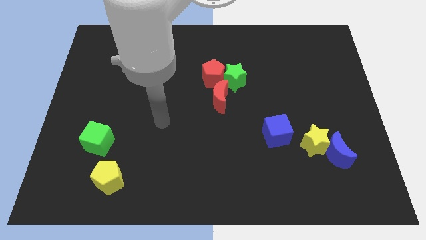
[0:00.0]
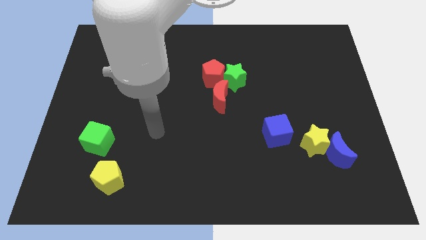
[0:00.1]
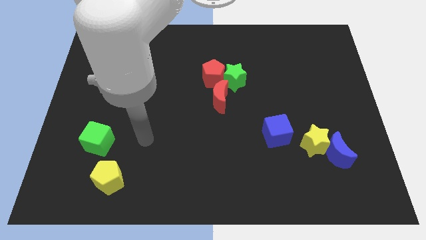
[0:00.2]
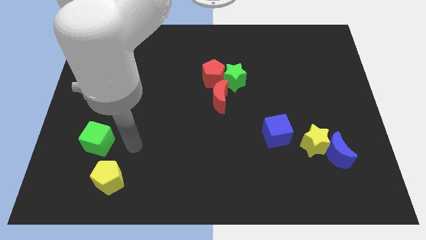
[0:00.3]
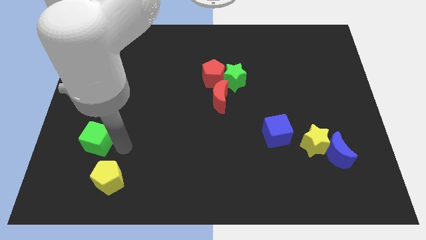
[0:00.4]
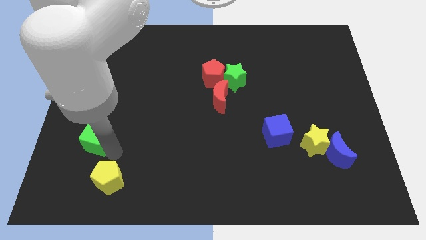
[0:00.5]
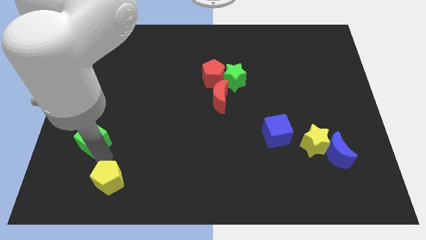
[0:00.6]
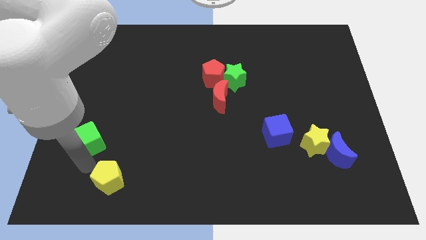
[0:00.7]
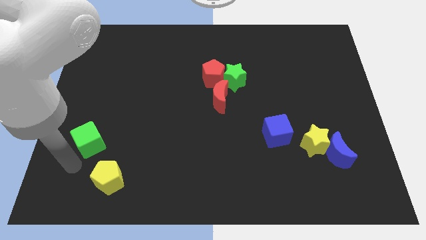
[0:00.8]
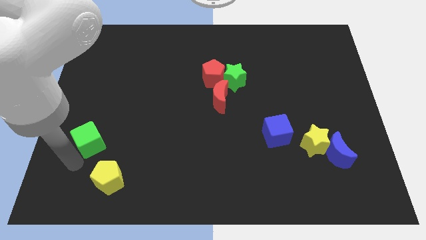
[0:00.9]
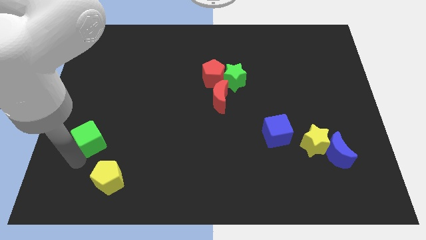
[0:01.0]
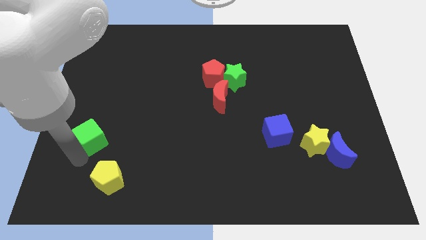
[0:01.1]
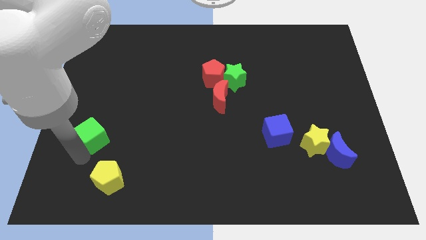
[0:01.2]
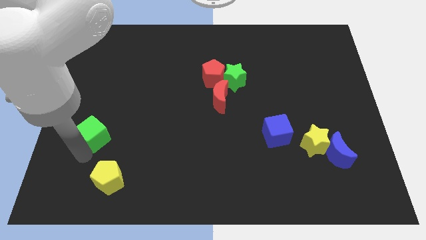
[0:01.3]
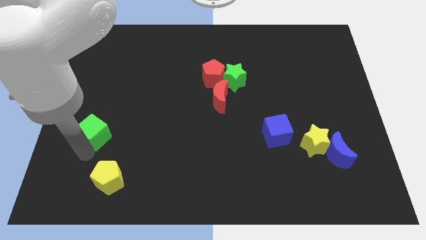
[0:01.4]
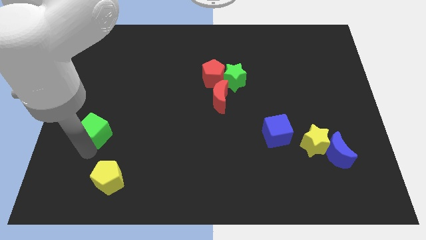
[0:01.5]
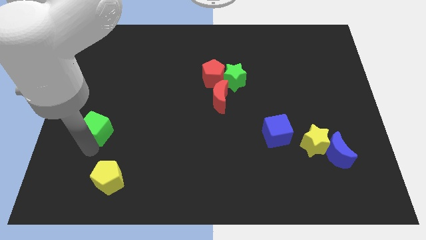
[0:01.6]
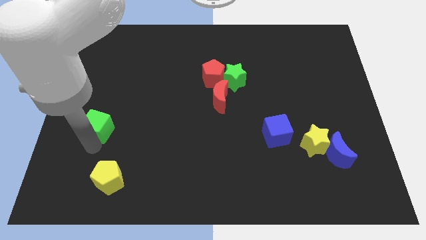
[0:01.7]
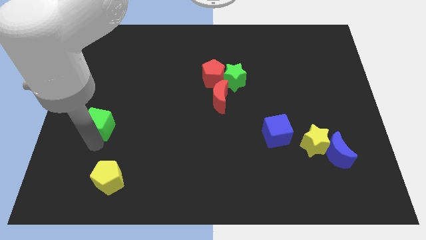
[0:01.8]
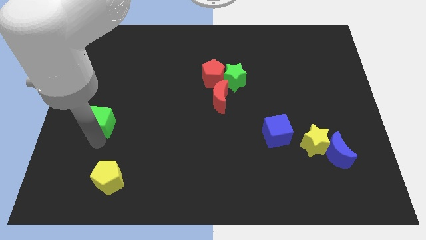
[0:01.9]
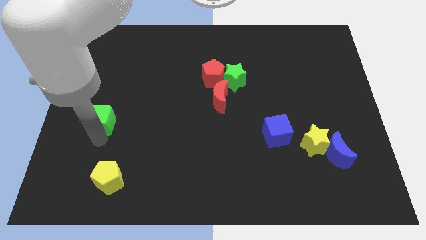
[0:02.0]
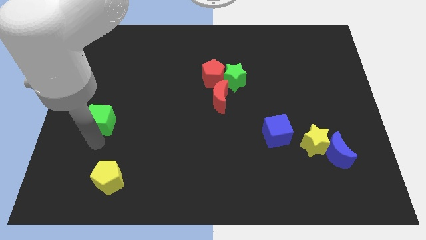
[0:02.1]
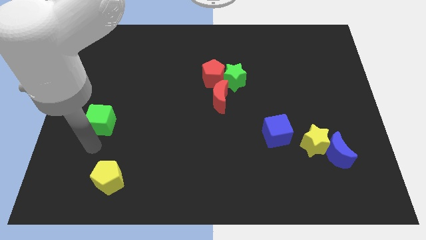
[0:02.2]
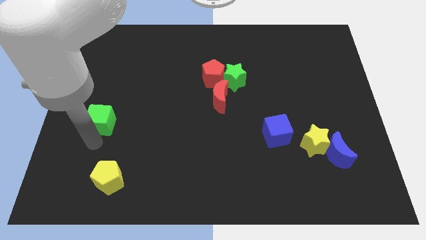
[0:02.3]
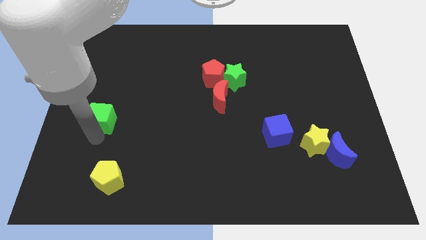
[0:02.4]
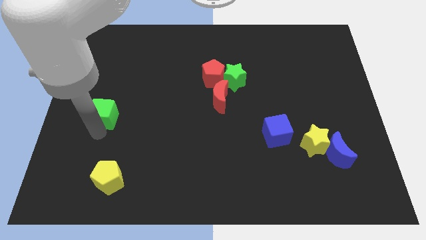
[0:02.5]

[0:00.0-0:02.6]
slightly push the green cube up

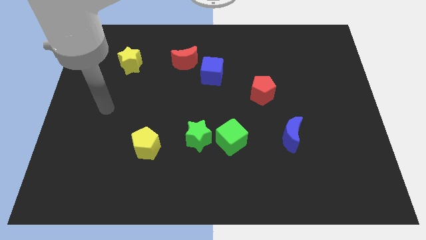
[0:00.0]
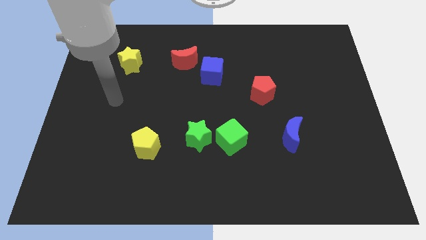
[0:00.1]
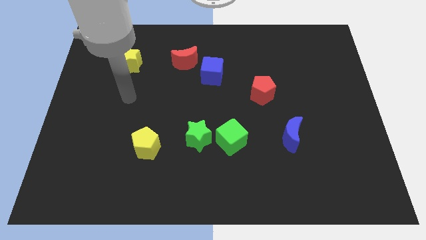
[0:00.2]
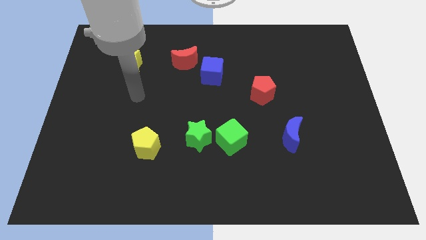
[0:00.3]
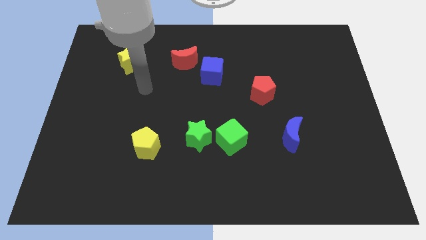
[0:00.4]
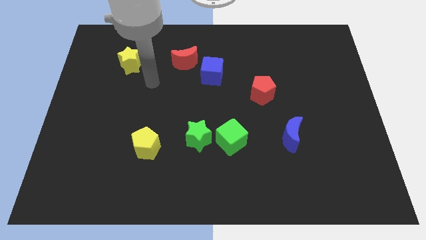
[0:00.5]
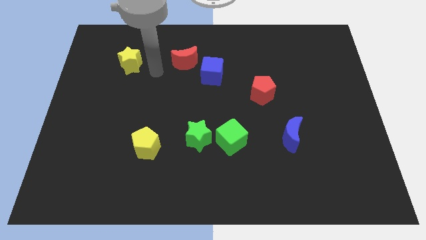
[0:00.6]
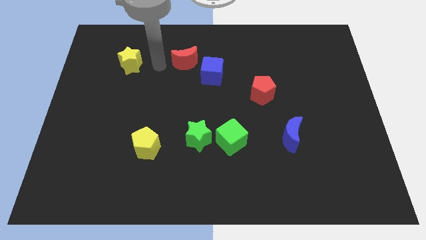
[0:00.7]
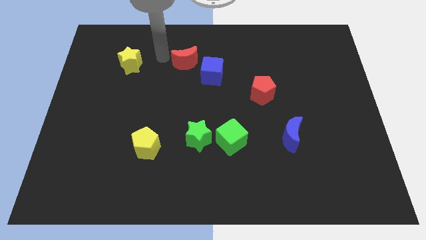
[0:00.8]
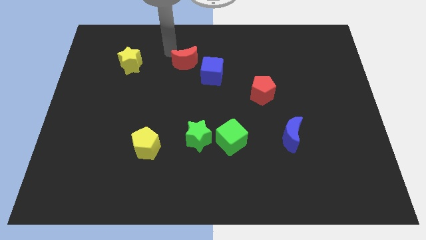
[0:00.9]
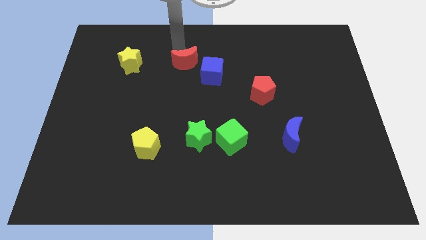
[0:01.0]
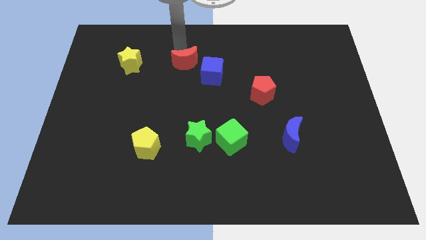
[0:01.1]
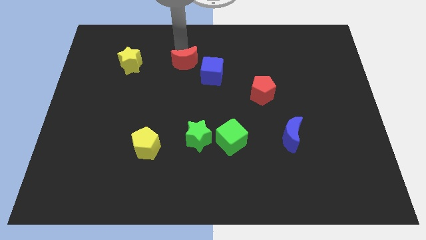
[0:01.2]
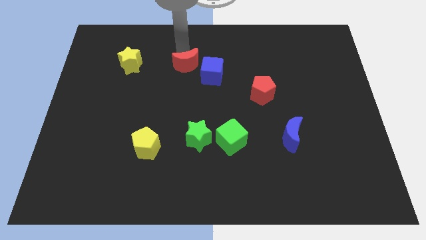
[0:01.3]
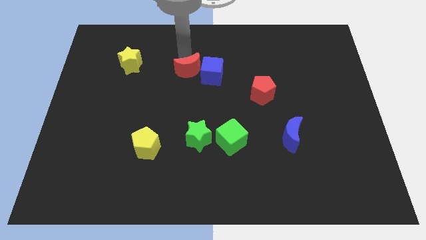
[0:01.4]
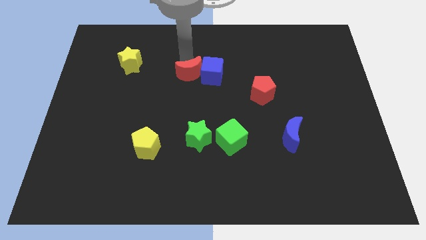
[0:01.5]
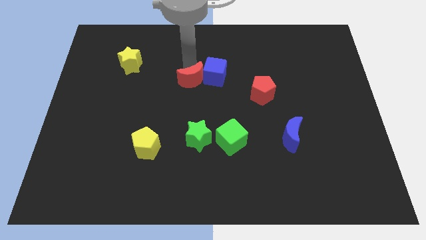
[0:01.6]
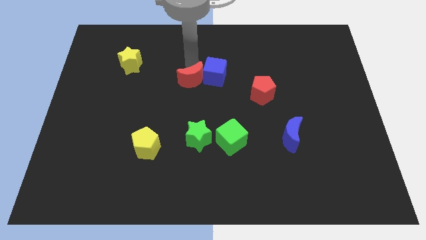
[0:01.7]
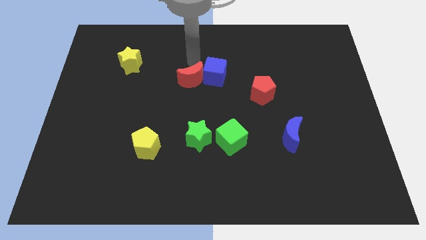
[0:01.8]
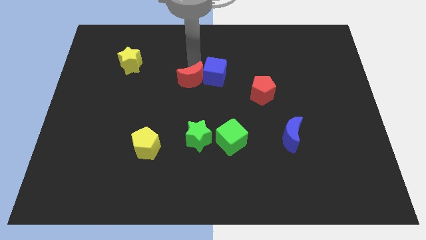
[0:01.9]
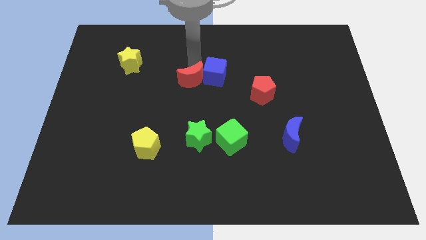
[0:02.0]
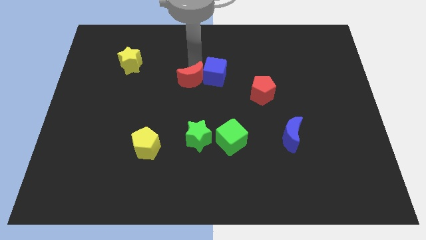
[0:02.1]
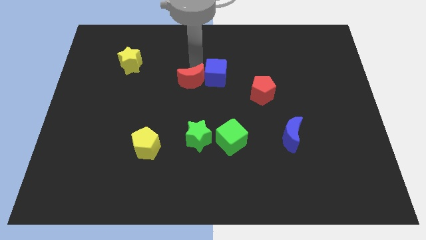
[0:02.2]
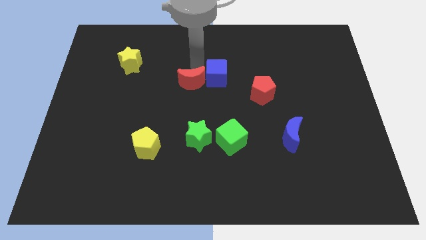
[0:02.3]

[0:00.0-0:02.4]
push the red moon down slightly

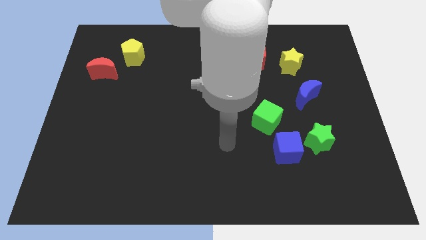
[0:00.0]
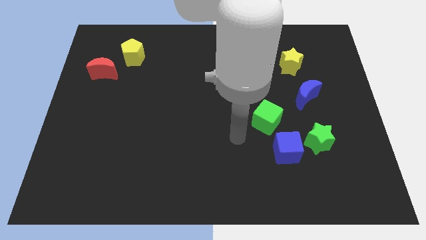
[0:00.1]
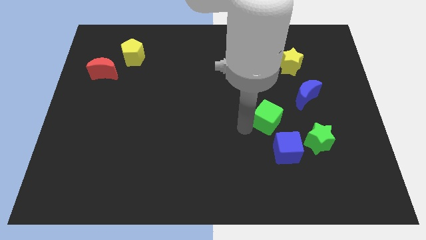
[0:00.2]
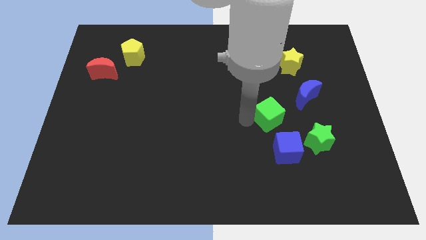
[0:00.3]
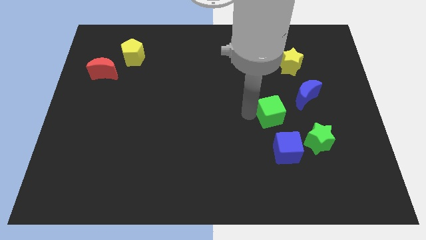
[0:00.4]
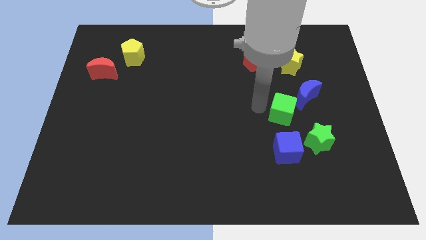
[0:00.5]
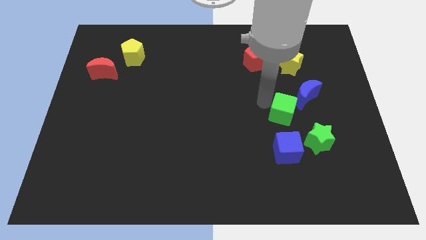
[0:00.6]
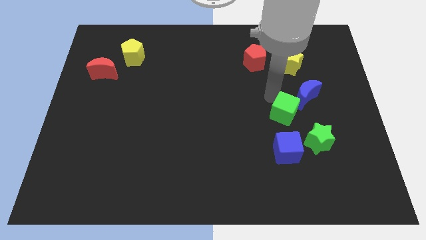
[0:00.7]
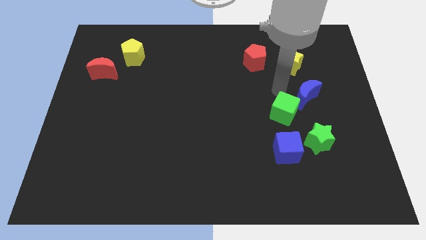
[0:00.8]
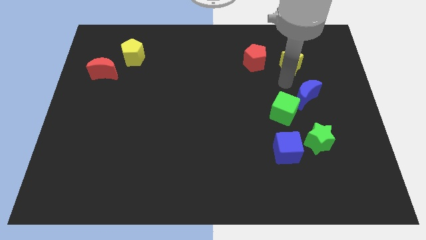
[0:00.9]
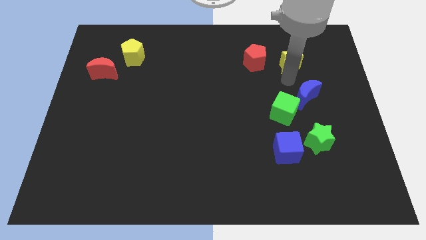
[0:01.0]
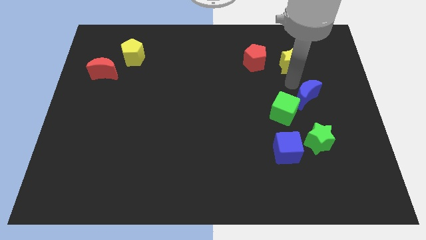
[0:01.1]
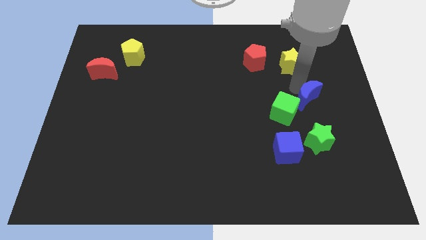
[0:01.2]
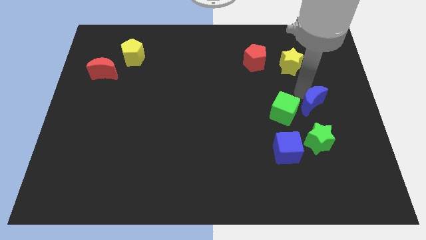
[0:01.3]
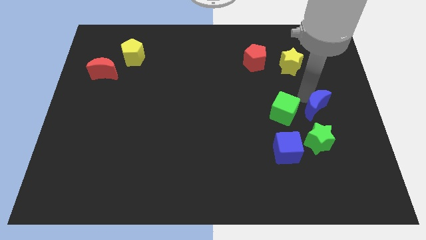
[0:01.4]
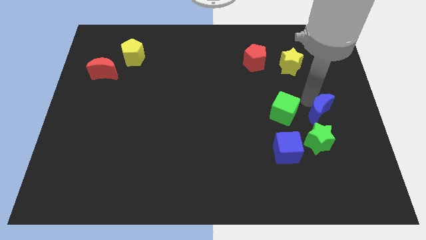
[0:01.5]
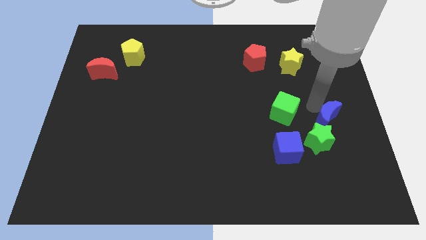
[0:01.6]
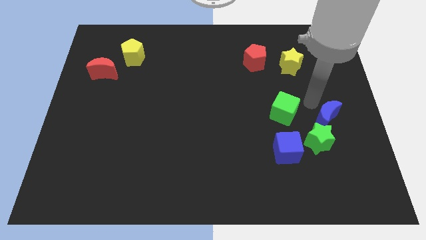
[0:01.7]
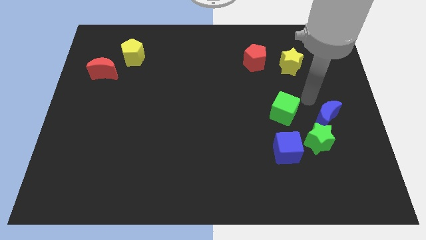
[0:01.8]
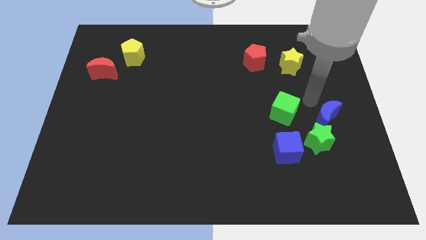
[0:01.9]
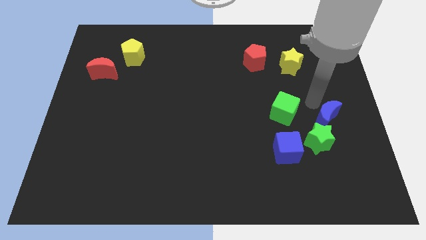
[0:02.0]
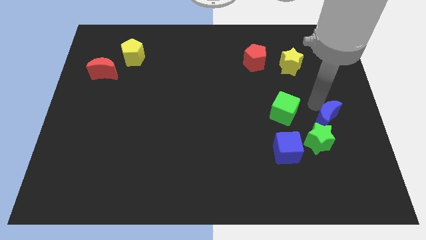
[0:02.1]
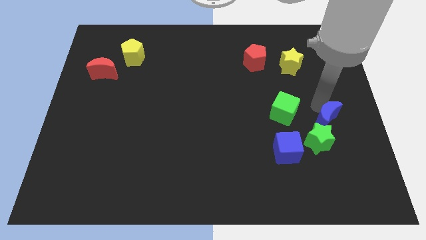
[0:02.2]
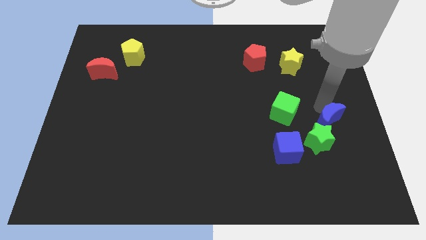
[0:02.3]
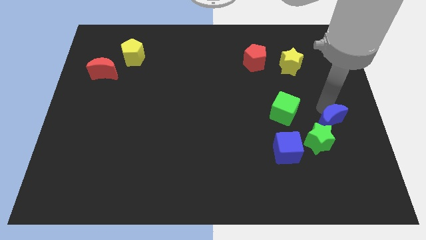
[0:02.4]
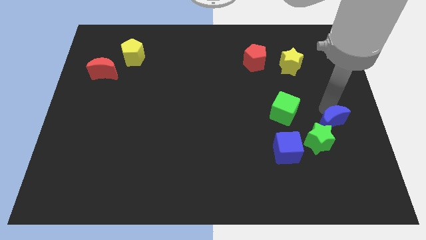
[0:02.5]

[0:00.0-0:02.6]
slide the blue moon somewhat down
